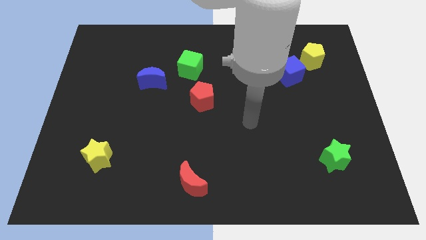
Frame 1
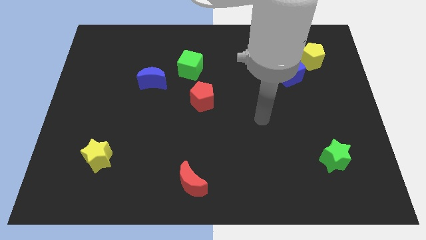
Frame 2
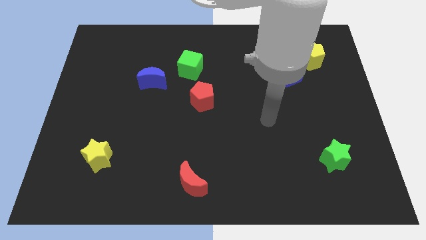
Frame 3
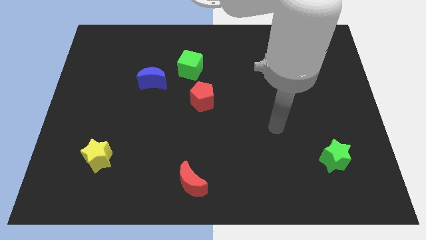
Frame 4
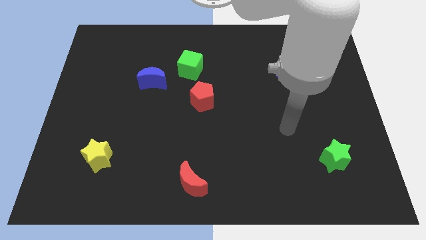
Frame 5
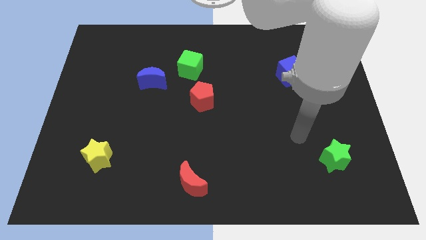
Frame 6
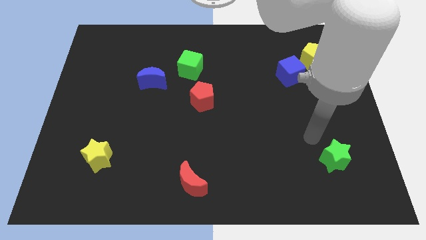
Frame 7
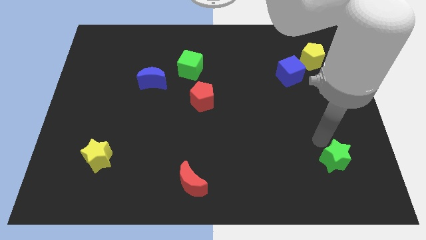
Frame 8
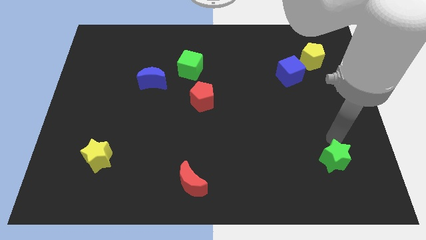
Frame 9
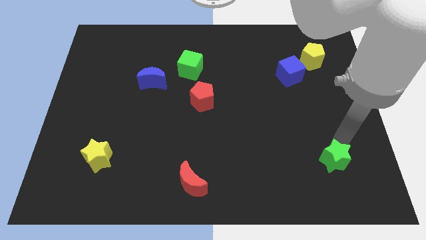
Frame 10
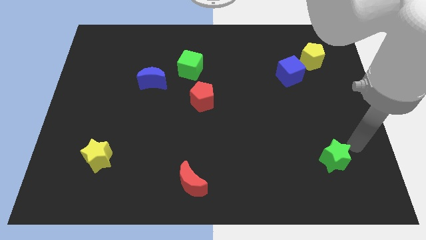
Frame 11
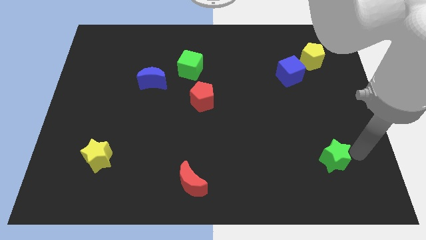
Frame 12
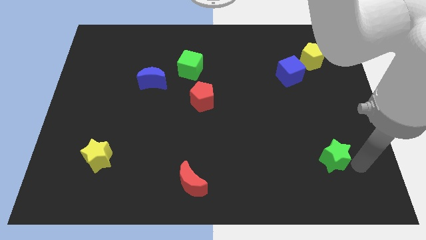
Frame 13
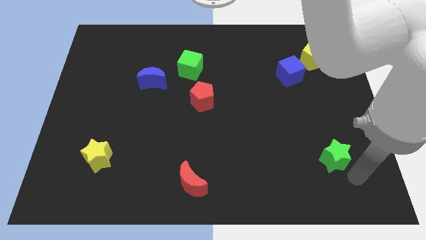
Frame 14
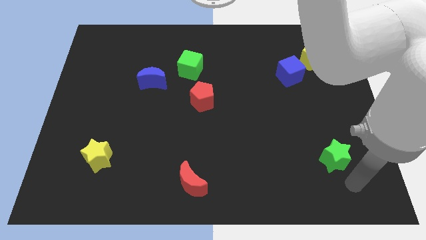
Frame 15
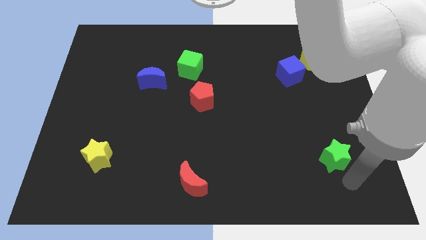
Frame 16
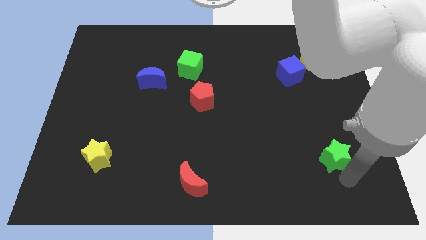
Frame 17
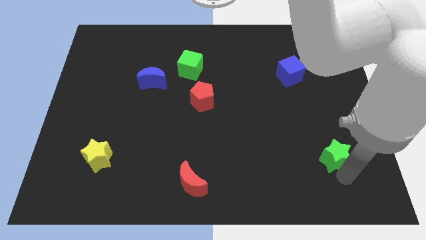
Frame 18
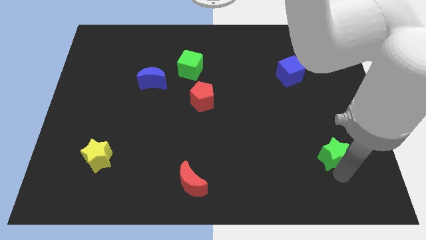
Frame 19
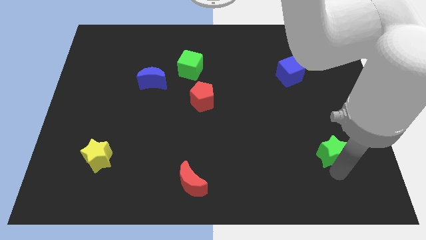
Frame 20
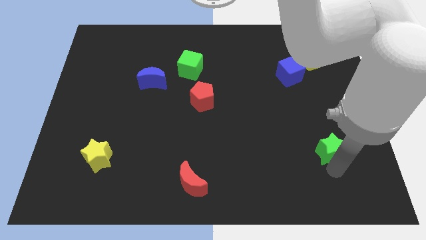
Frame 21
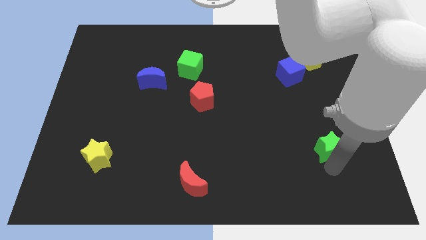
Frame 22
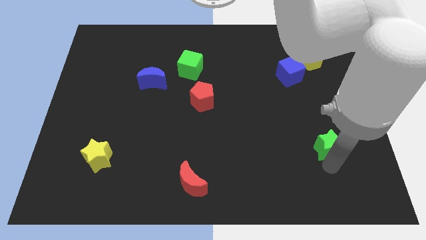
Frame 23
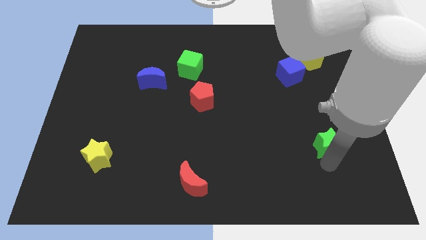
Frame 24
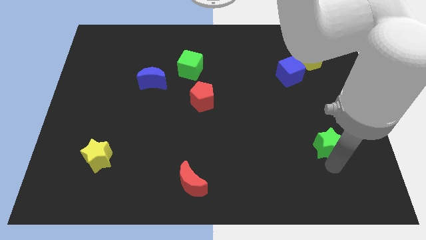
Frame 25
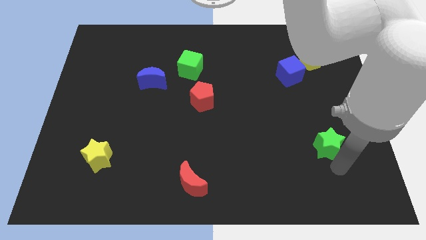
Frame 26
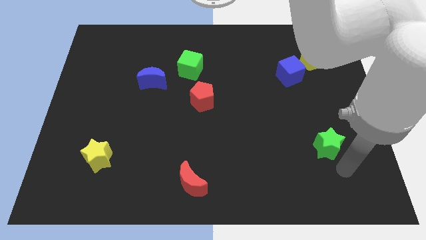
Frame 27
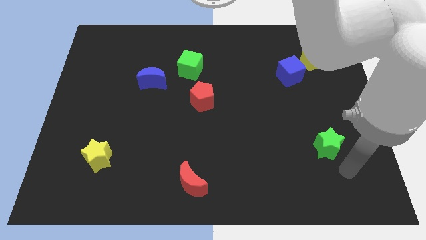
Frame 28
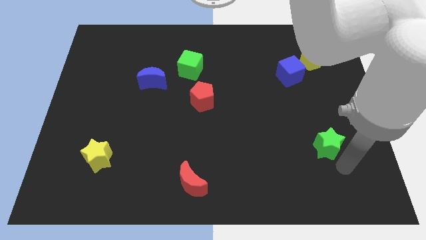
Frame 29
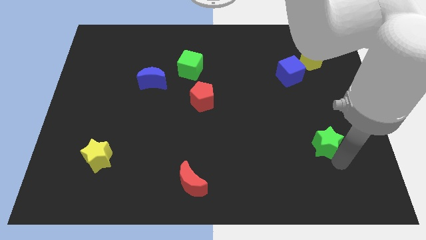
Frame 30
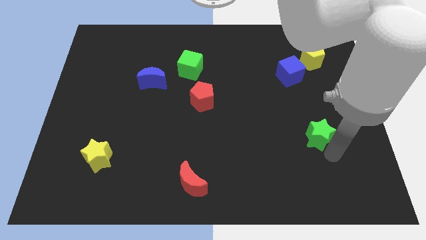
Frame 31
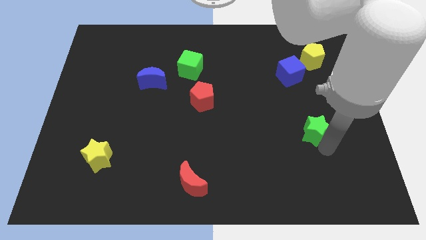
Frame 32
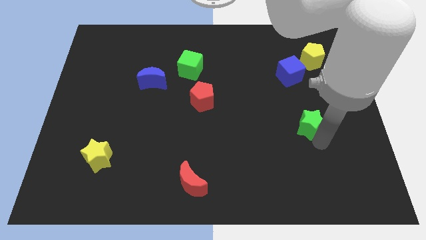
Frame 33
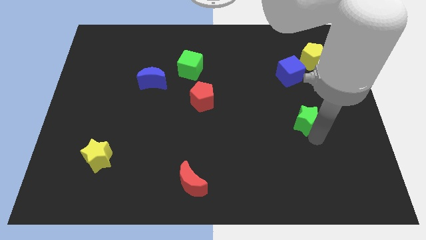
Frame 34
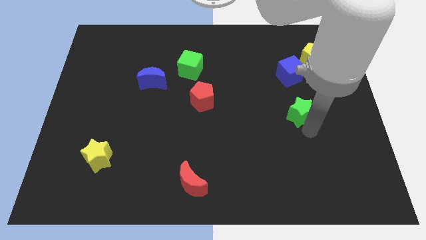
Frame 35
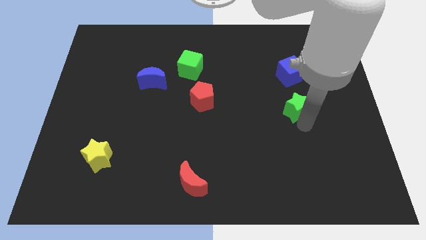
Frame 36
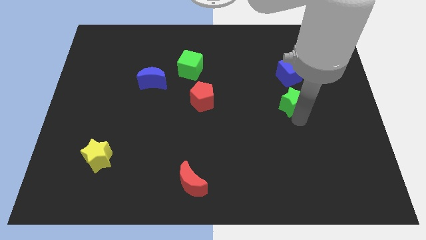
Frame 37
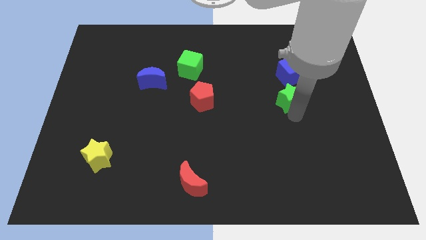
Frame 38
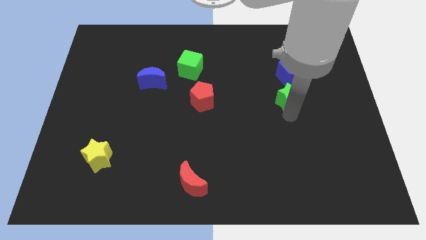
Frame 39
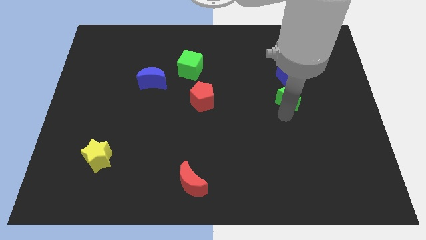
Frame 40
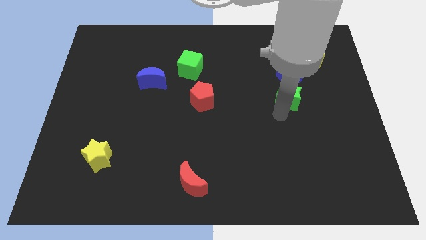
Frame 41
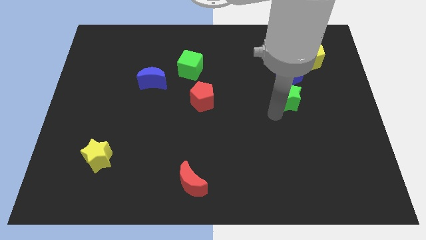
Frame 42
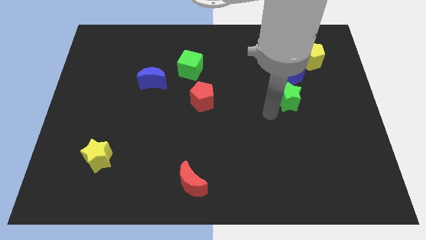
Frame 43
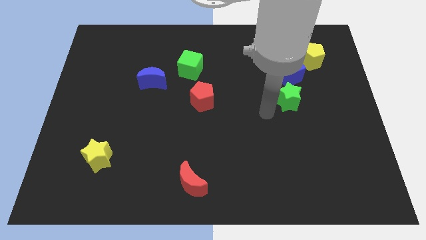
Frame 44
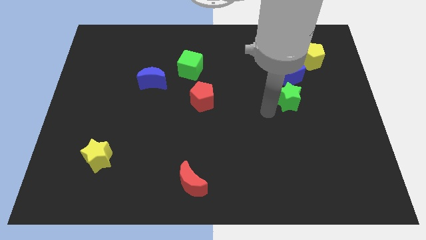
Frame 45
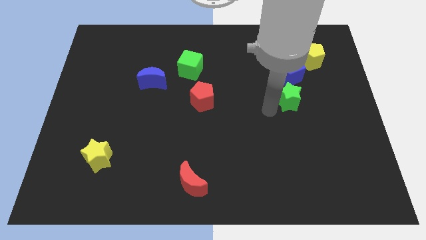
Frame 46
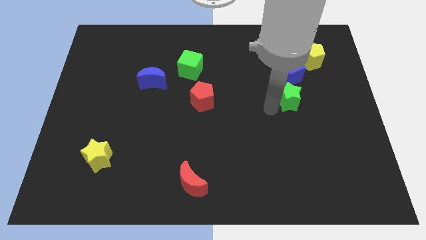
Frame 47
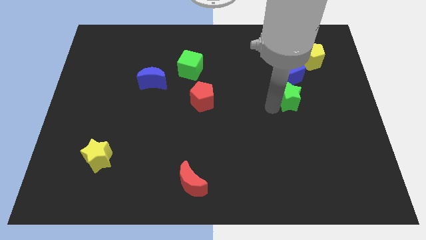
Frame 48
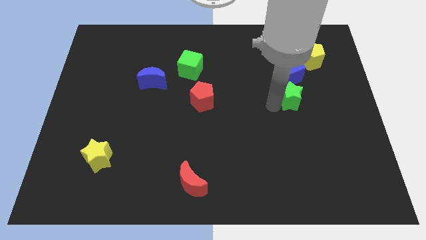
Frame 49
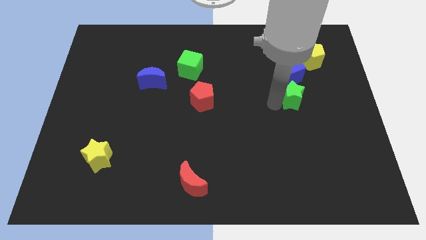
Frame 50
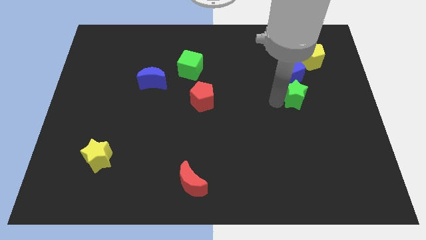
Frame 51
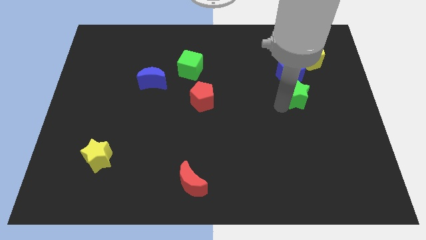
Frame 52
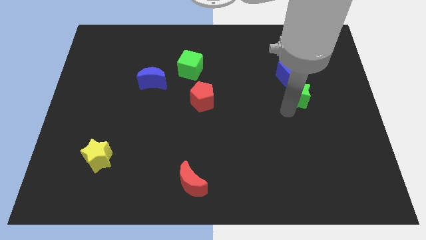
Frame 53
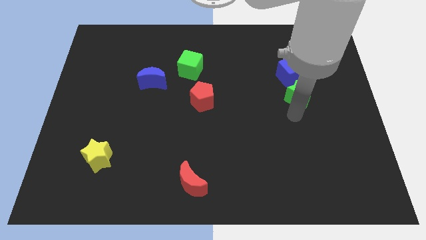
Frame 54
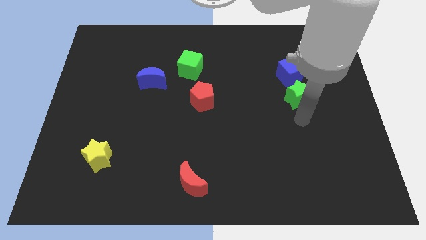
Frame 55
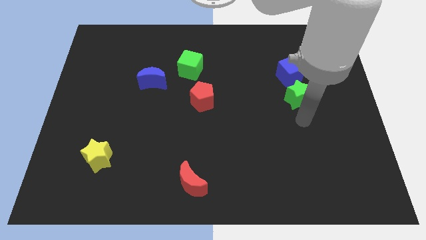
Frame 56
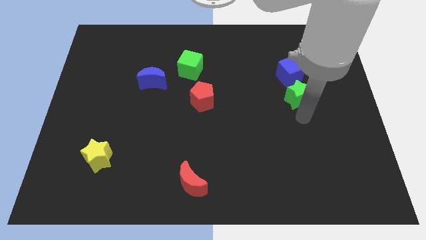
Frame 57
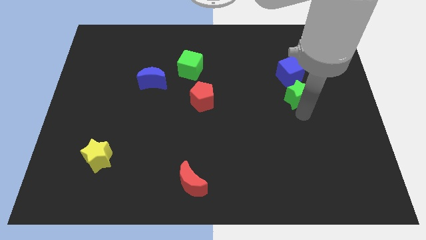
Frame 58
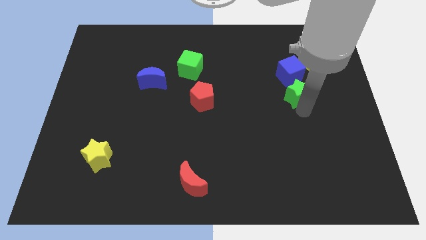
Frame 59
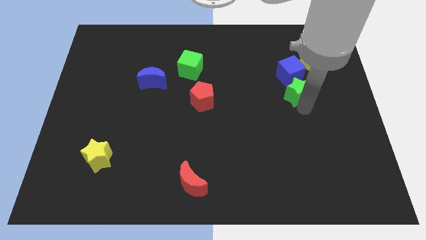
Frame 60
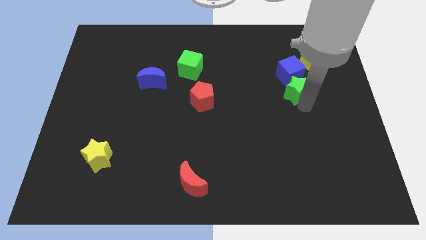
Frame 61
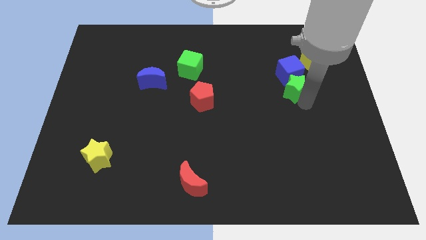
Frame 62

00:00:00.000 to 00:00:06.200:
put the green star to the blue cube

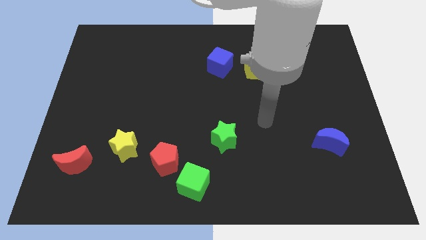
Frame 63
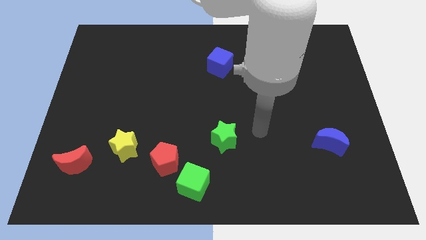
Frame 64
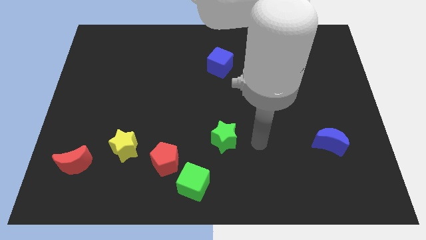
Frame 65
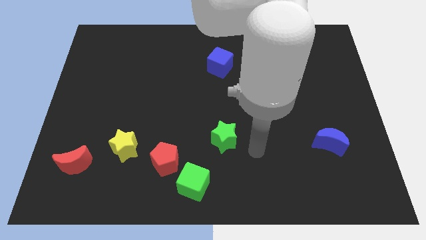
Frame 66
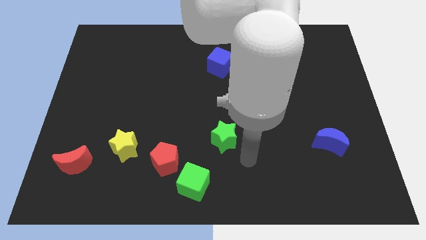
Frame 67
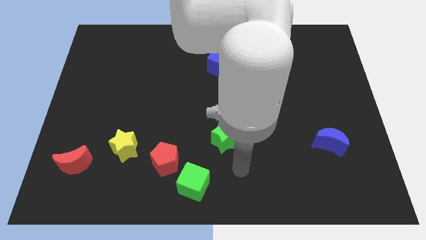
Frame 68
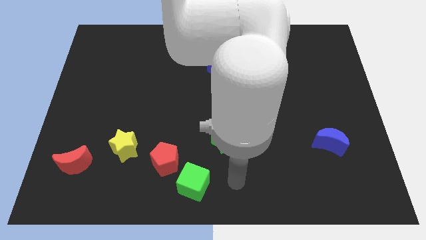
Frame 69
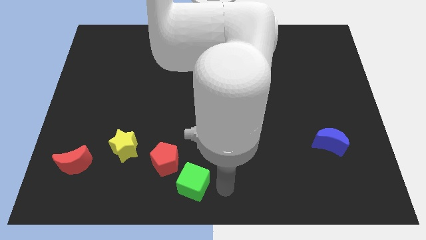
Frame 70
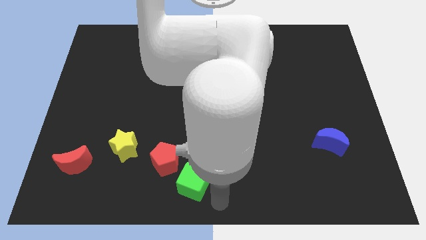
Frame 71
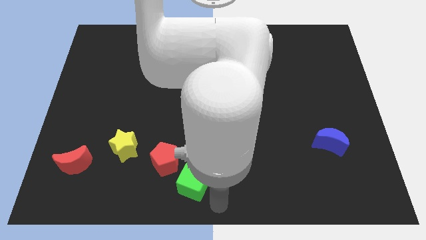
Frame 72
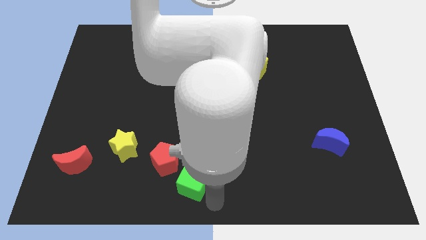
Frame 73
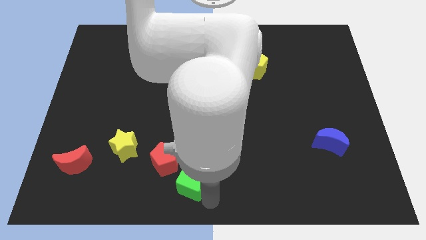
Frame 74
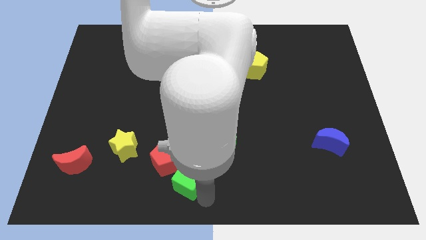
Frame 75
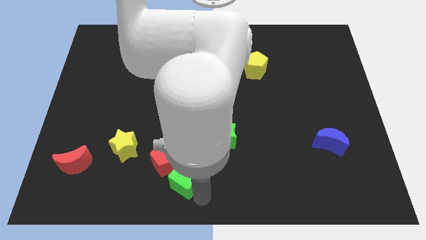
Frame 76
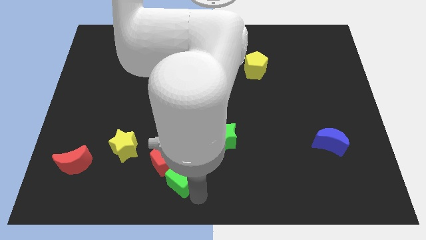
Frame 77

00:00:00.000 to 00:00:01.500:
move the green cube to the red pentagon
